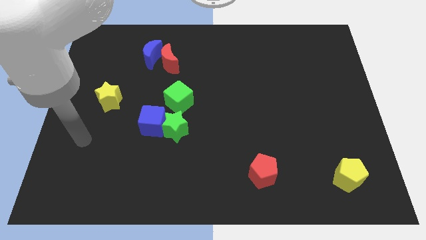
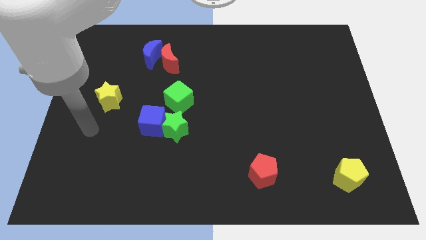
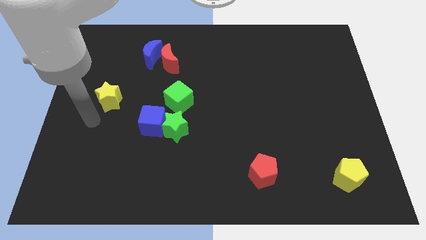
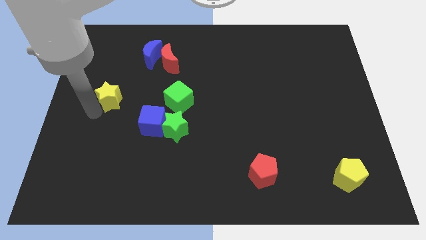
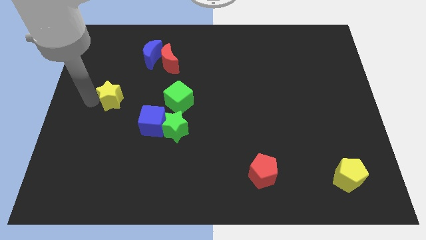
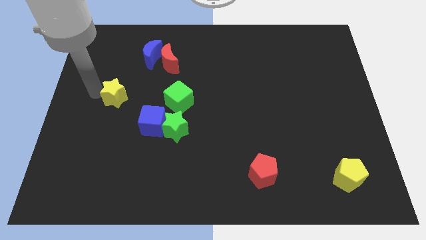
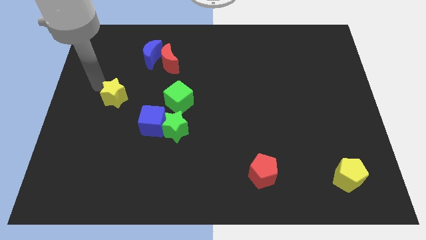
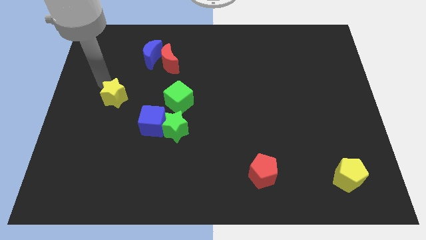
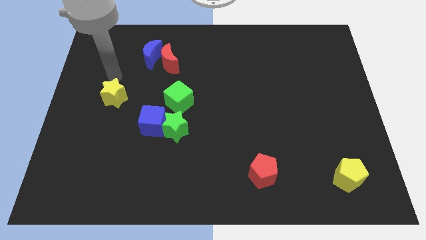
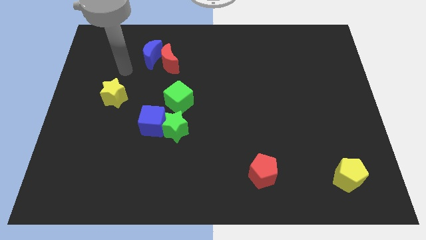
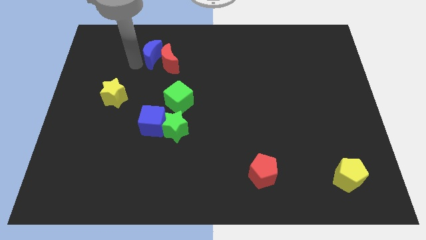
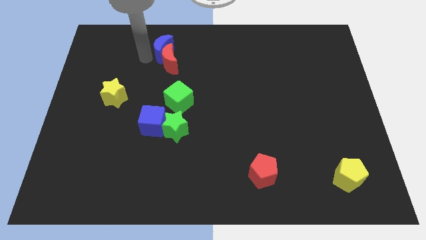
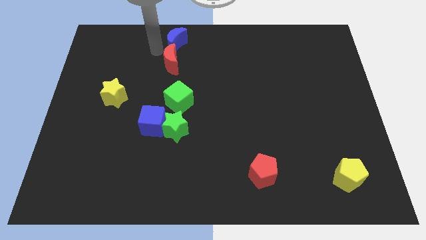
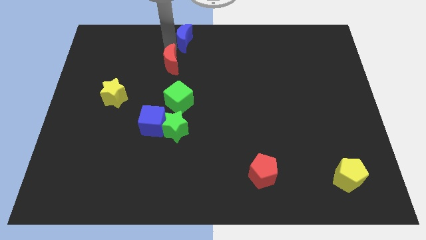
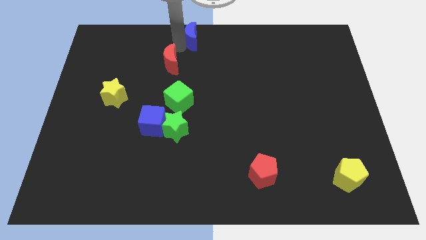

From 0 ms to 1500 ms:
separate the red moon from the blue moon

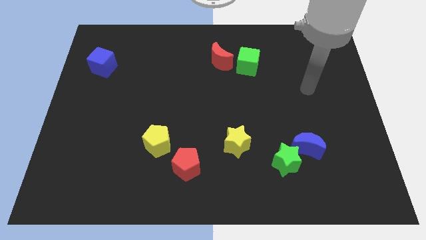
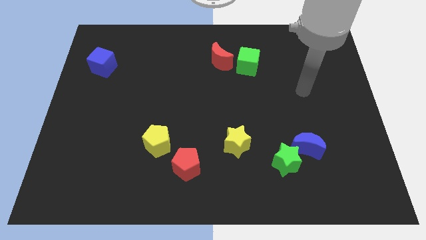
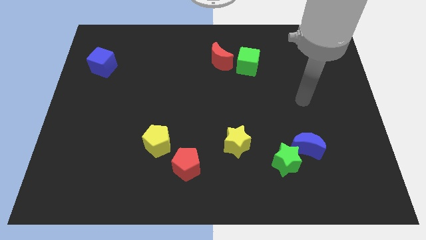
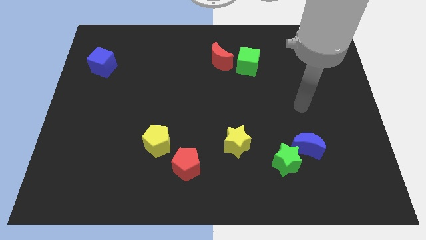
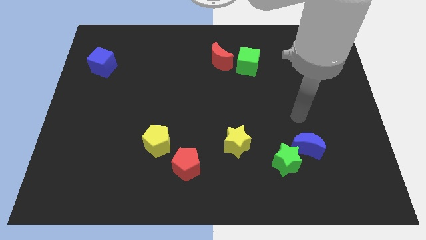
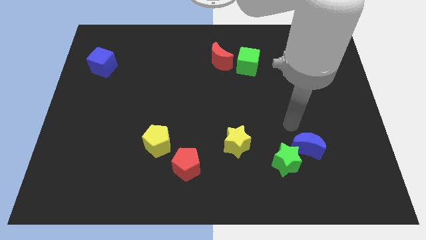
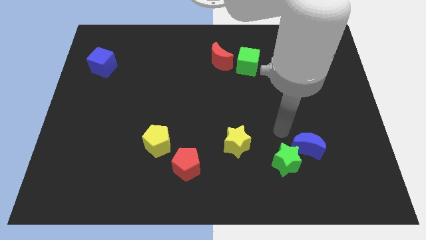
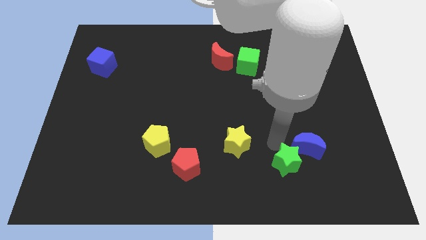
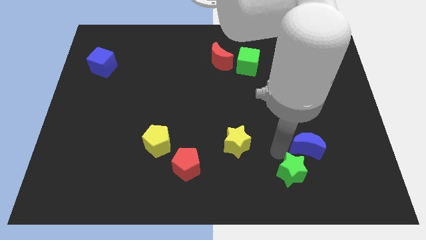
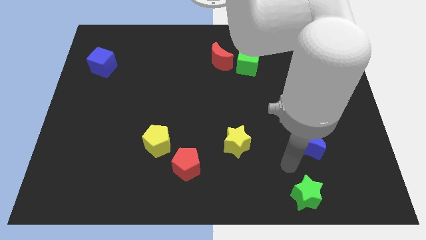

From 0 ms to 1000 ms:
pull the blue moon apart from the green star

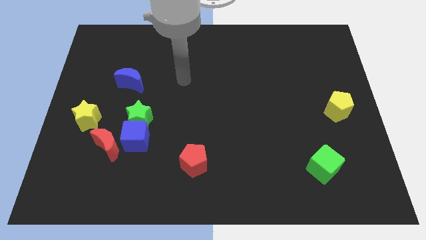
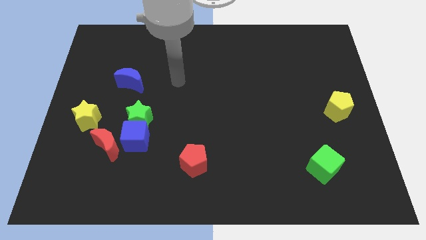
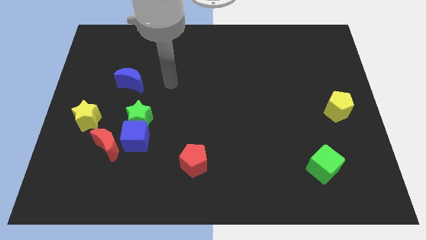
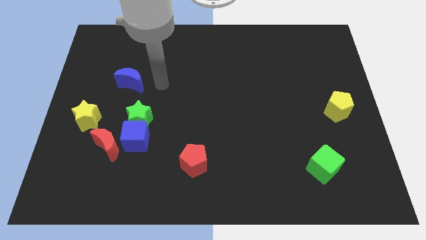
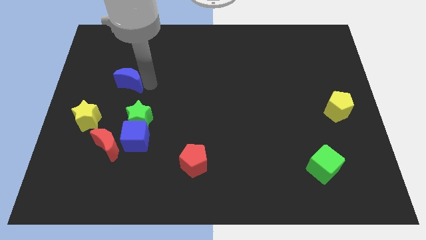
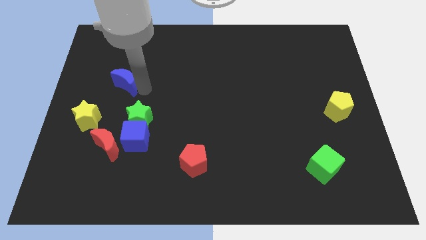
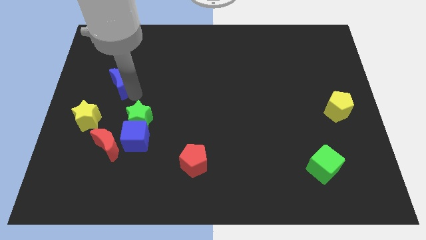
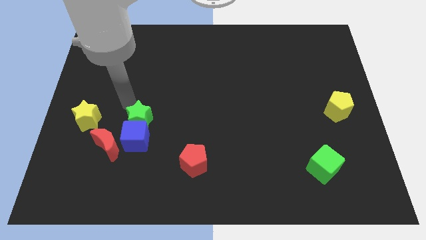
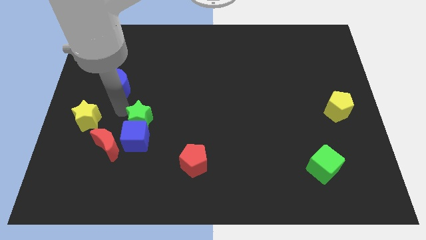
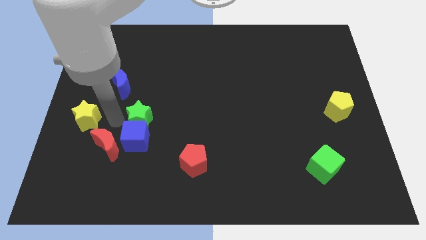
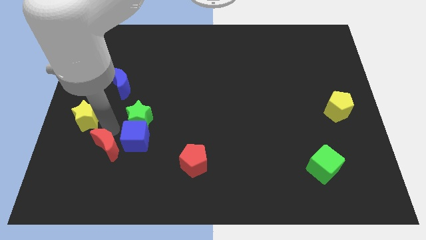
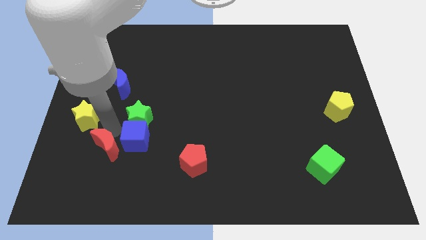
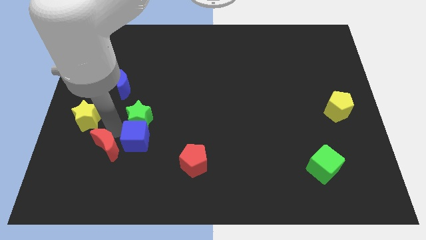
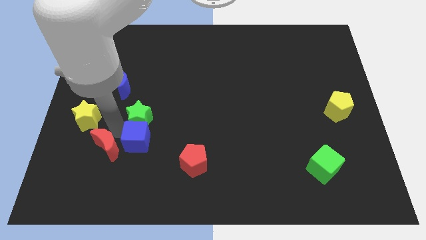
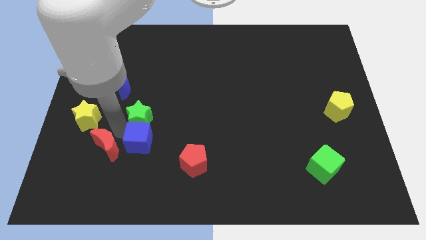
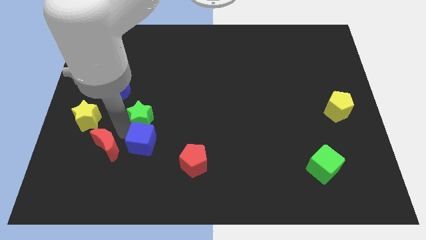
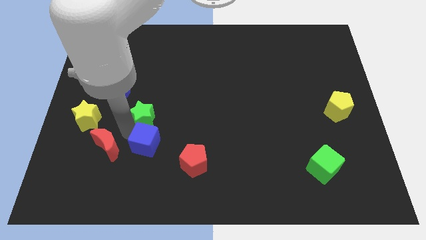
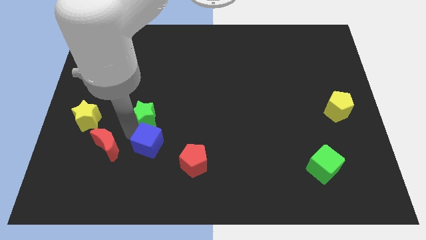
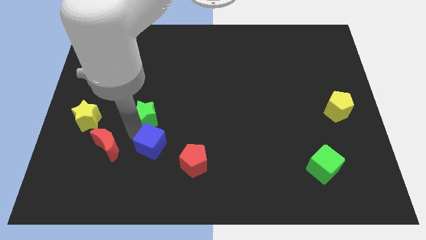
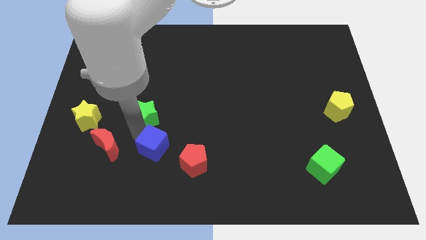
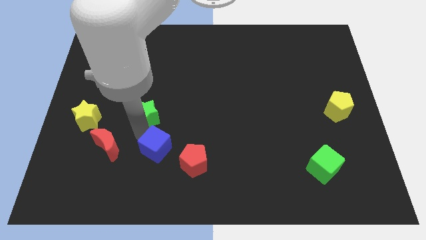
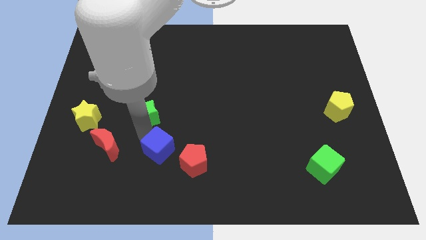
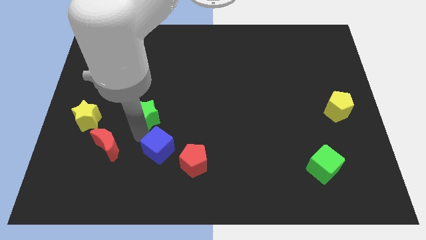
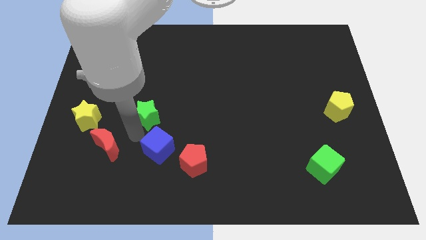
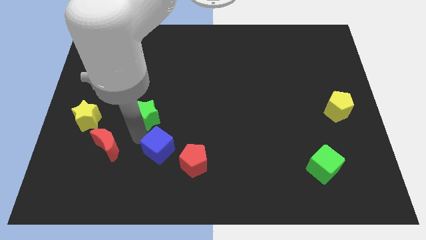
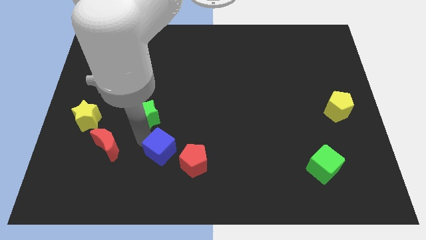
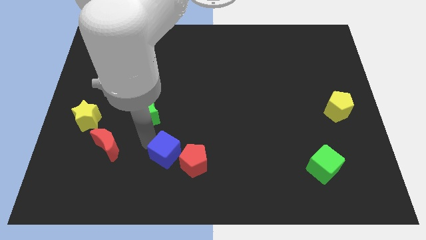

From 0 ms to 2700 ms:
separate the blue cube from the green star and red moon

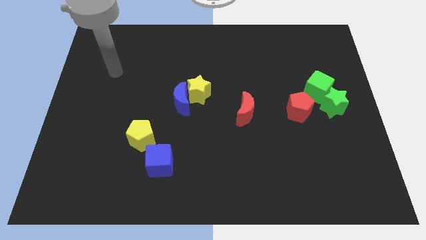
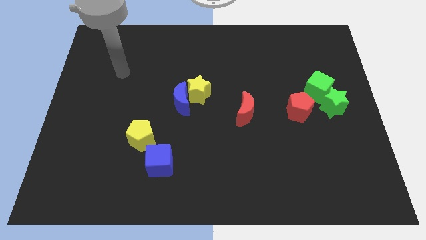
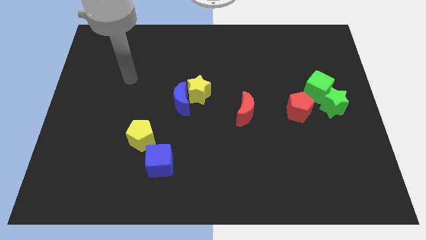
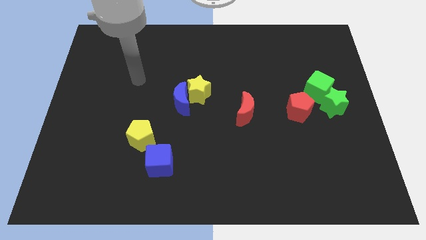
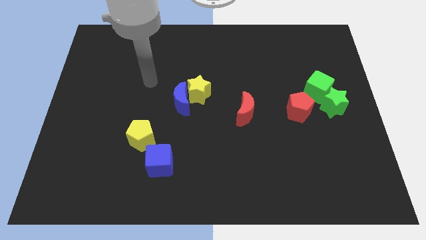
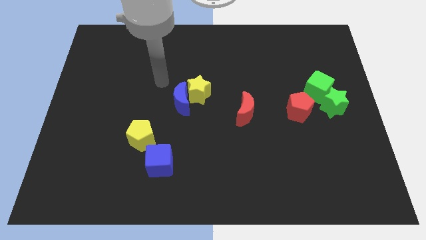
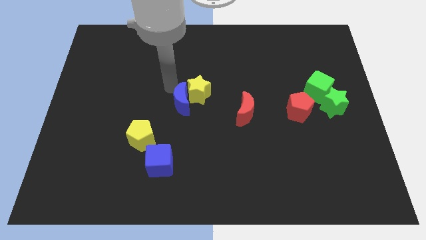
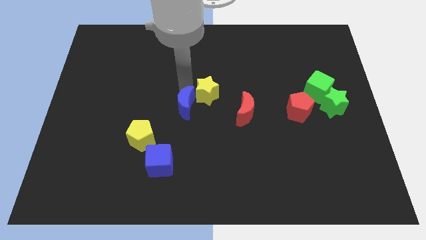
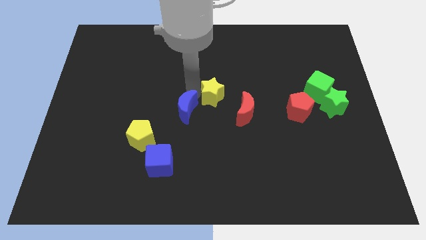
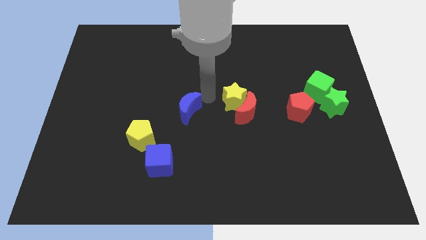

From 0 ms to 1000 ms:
move the blue moon away from the yellow star

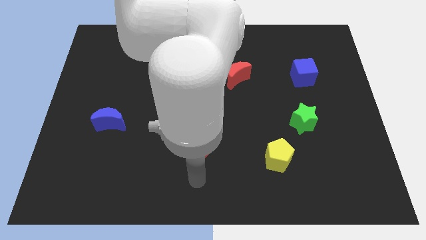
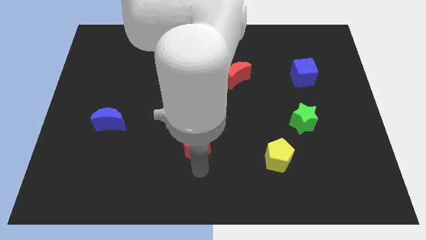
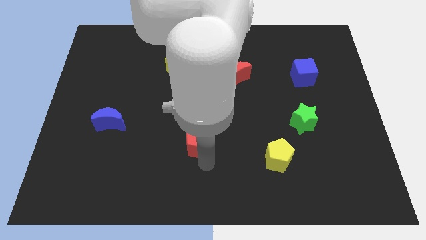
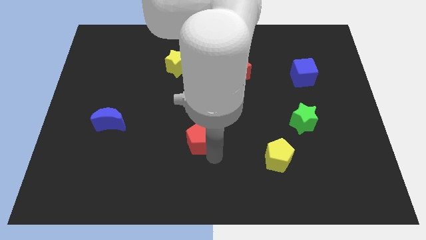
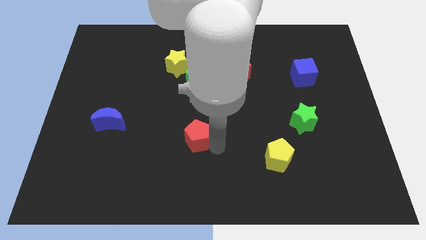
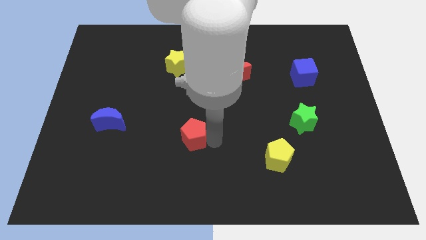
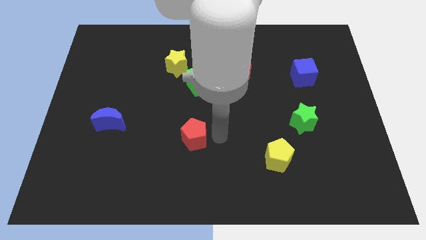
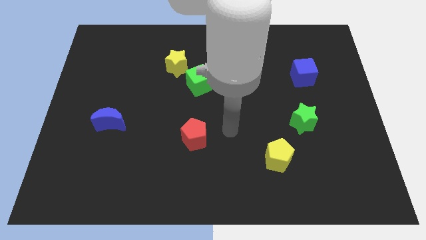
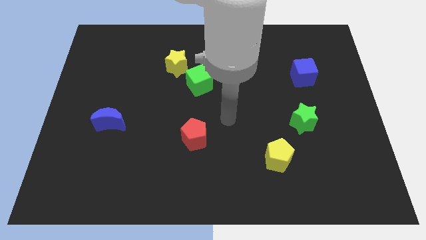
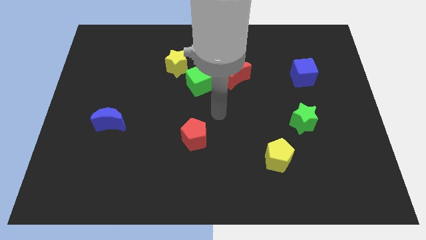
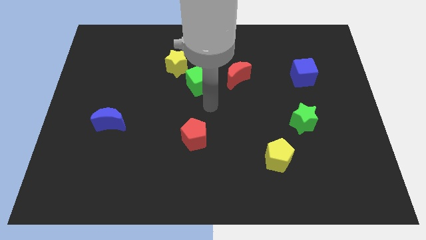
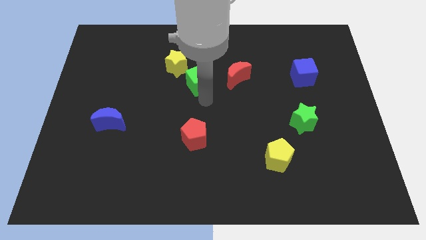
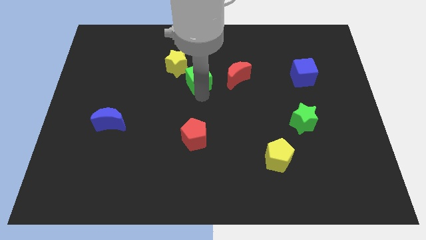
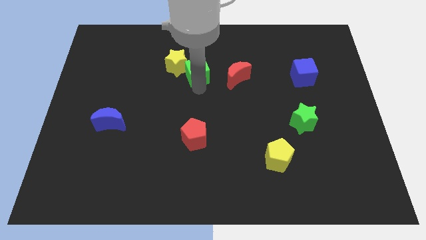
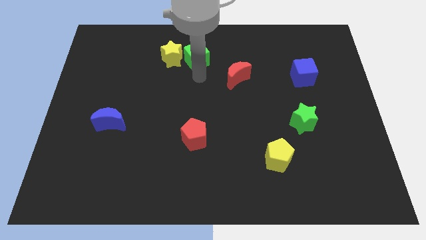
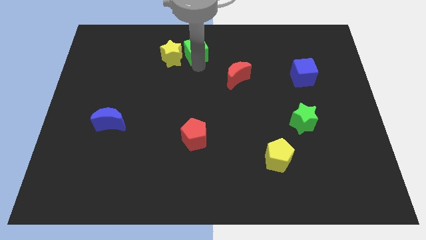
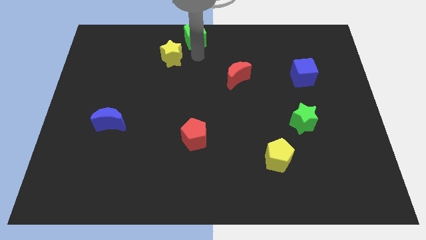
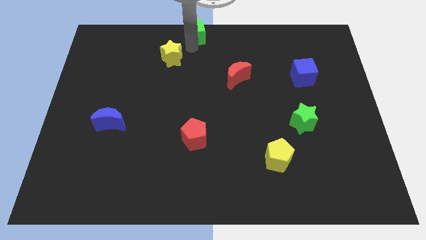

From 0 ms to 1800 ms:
separate the yellow star from the green cube

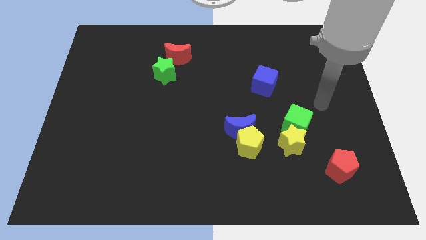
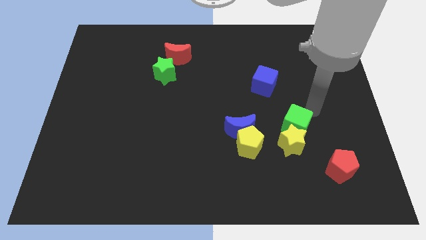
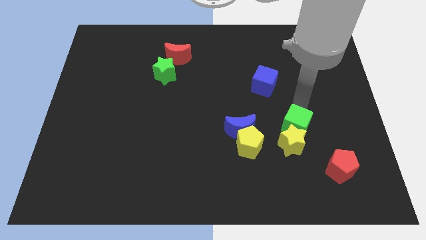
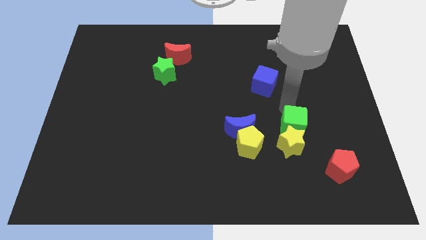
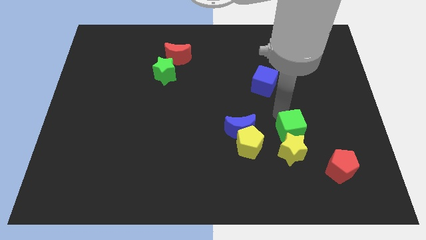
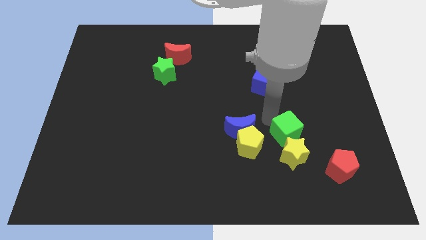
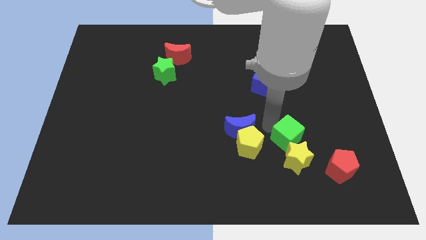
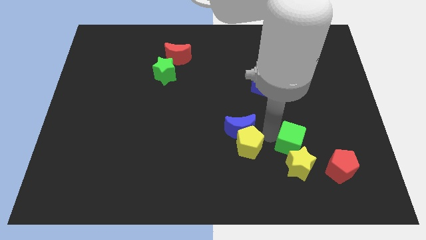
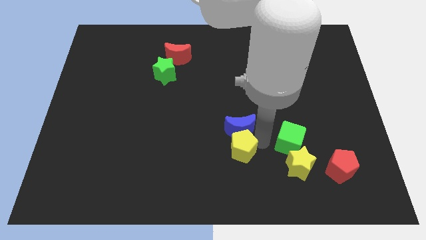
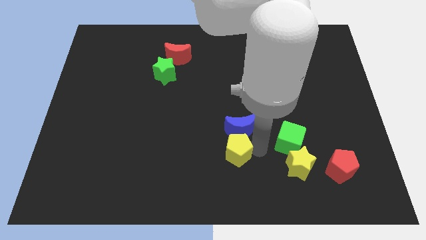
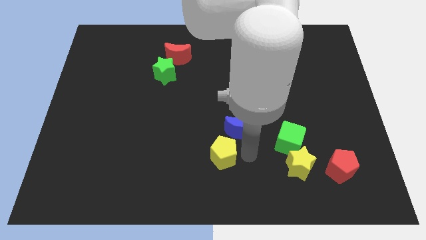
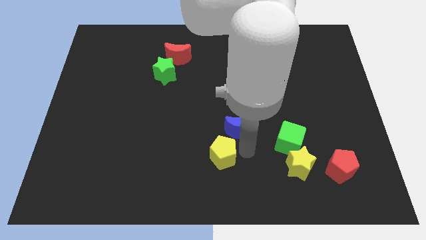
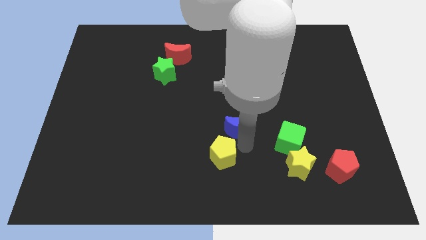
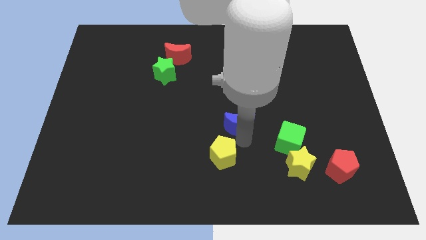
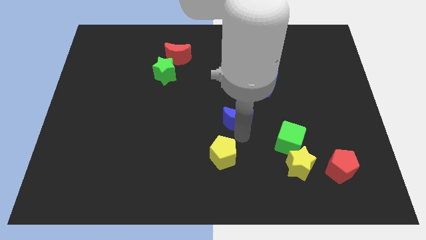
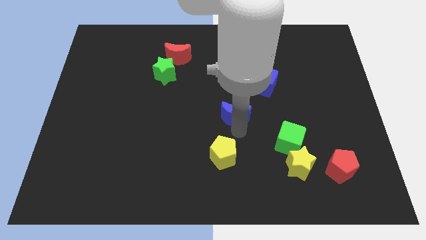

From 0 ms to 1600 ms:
pull the blue moon apart from the yellow pentagon
